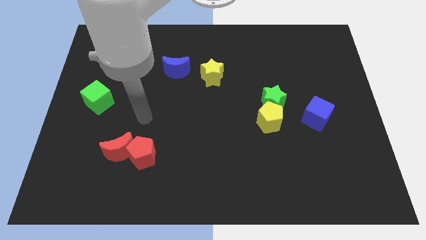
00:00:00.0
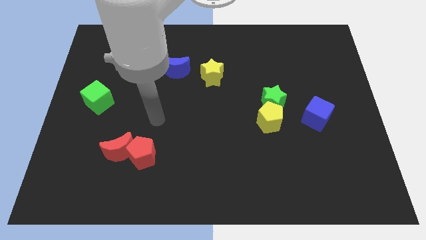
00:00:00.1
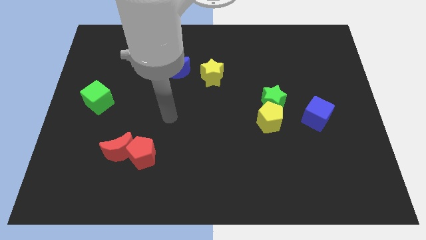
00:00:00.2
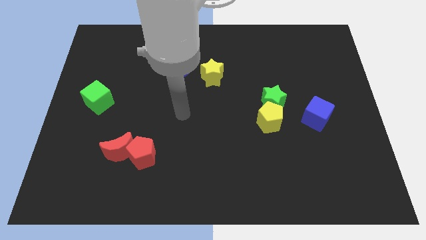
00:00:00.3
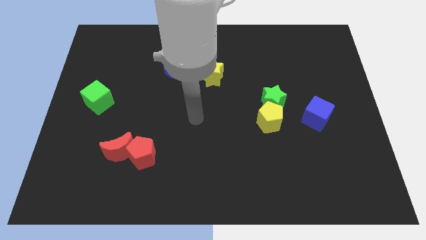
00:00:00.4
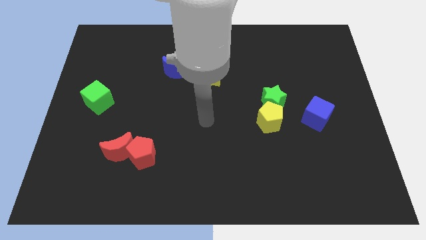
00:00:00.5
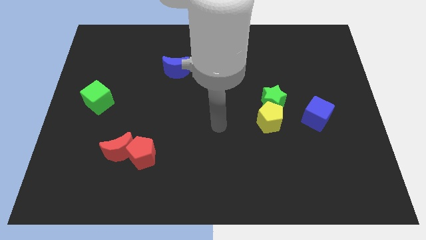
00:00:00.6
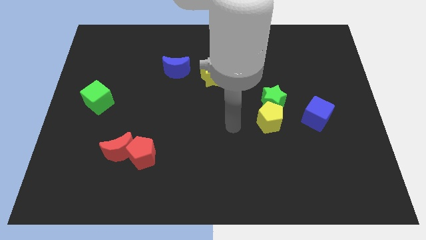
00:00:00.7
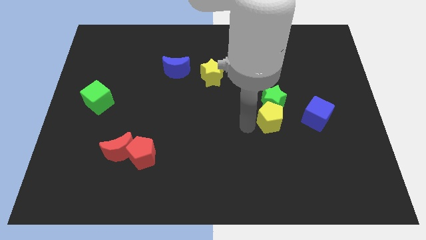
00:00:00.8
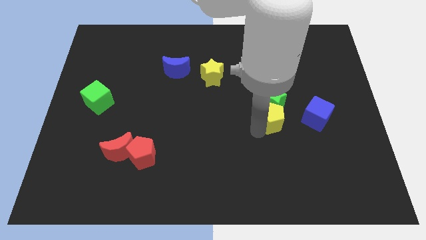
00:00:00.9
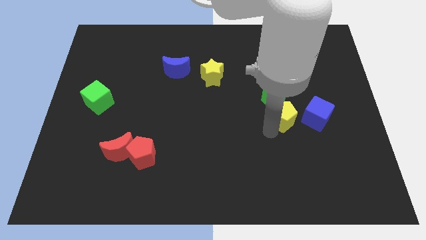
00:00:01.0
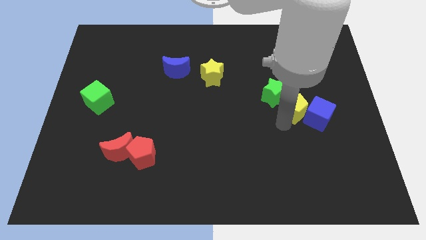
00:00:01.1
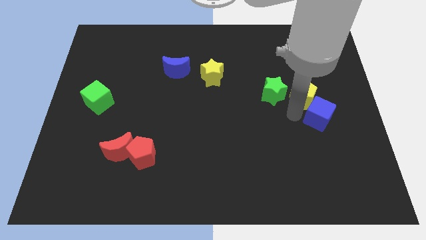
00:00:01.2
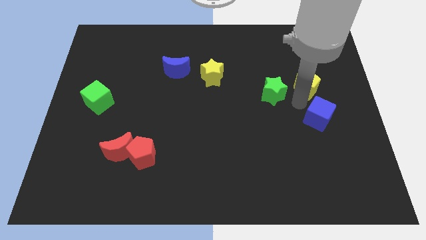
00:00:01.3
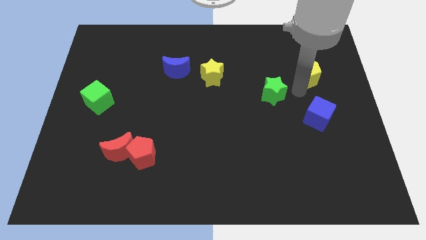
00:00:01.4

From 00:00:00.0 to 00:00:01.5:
separate the green star from the yellow pentagon

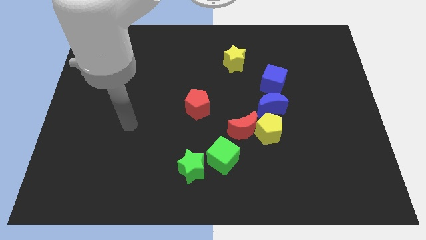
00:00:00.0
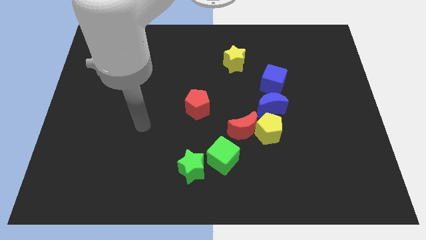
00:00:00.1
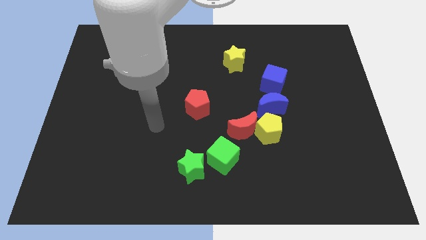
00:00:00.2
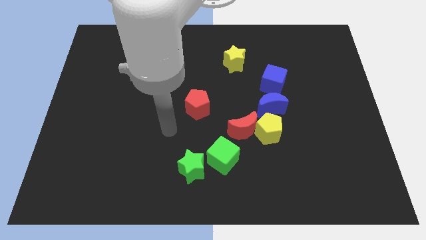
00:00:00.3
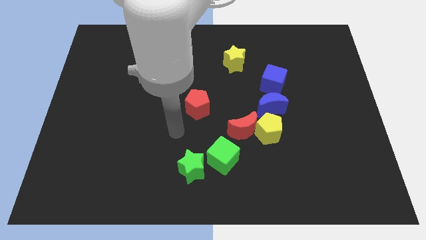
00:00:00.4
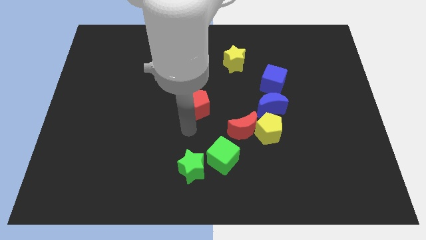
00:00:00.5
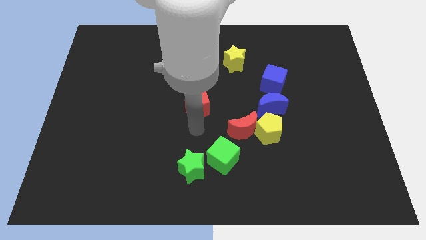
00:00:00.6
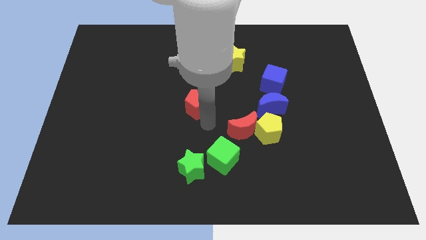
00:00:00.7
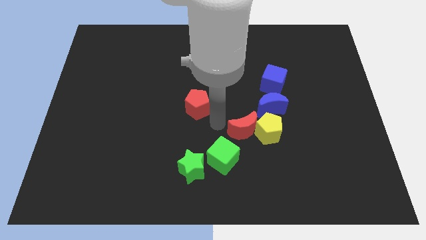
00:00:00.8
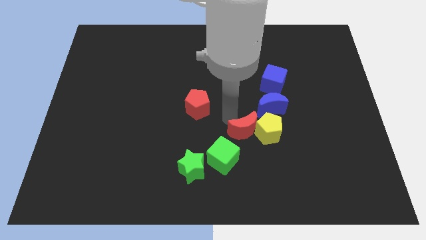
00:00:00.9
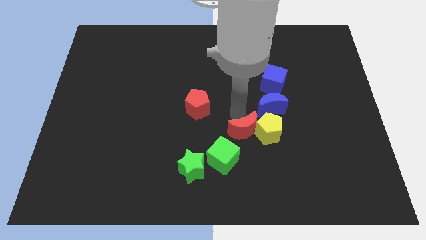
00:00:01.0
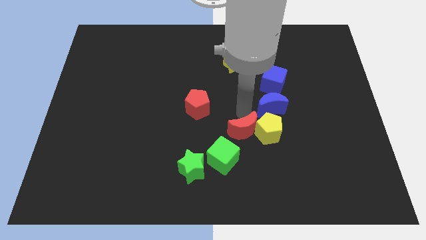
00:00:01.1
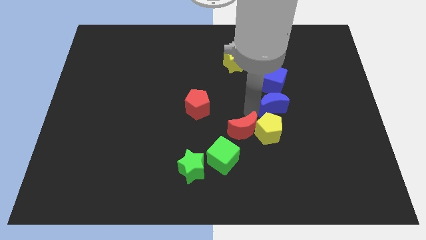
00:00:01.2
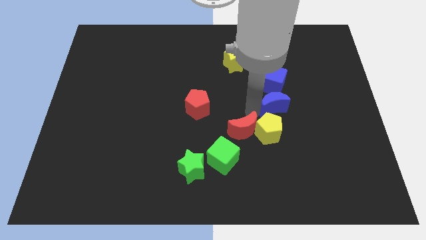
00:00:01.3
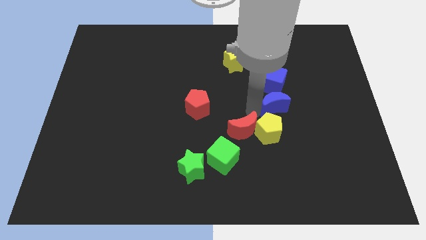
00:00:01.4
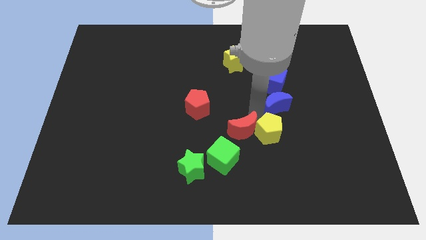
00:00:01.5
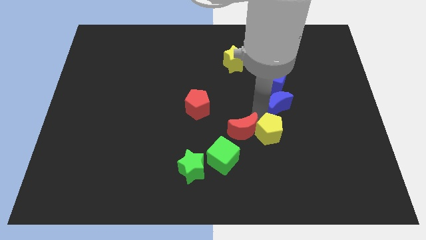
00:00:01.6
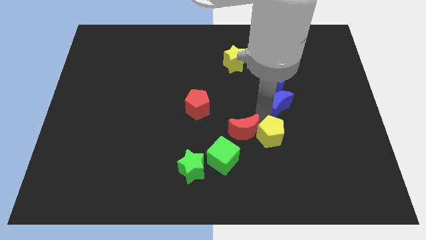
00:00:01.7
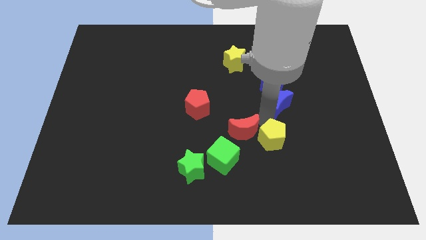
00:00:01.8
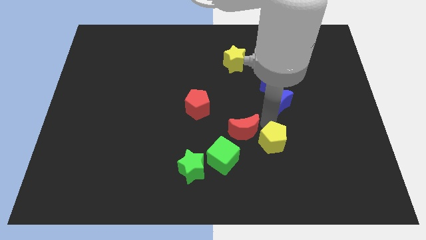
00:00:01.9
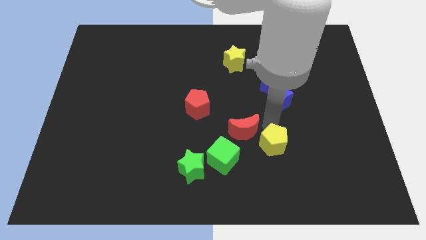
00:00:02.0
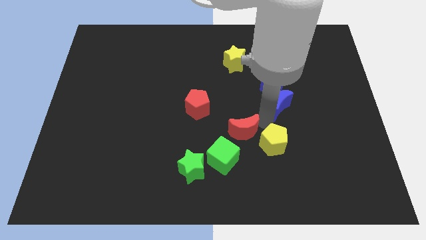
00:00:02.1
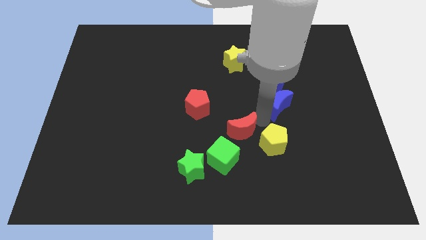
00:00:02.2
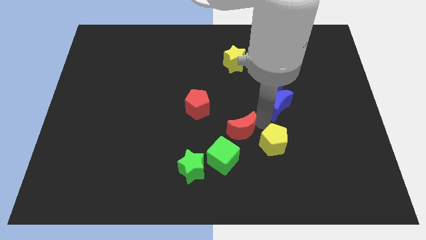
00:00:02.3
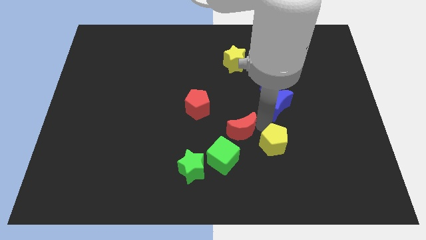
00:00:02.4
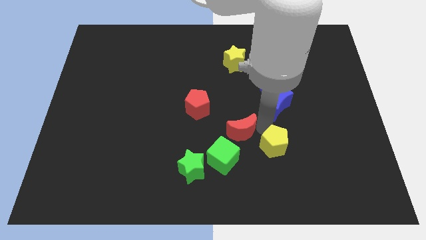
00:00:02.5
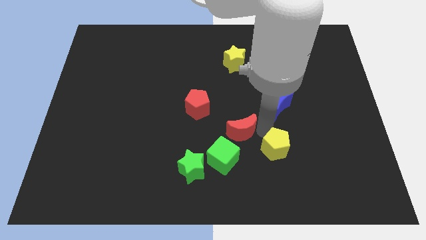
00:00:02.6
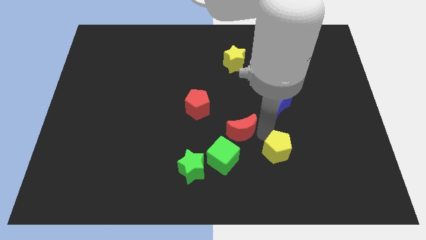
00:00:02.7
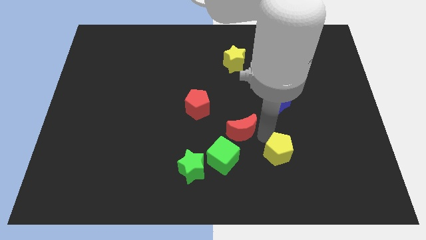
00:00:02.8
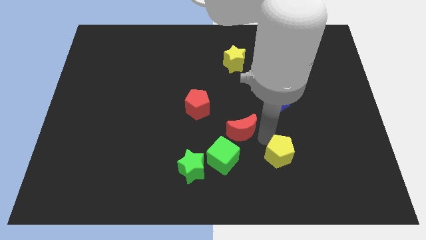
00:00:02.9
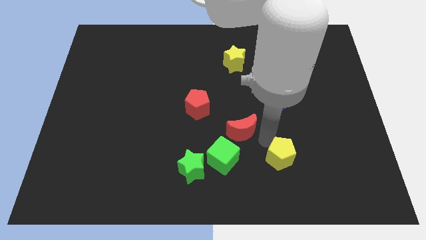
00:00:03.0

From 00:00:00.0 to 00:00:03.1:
pull the yellow pentagon apart from the red moon and blue moon

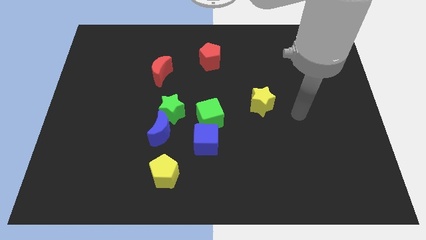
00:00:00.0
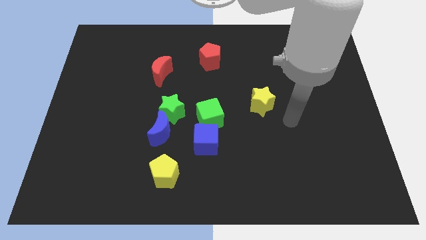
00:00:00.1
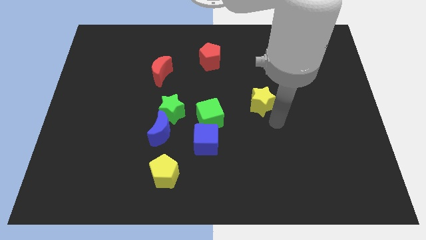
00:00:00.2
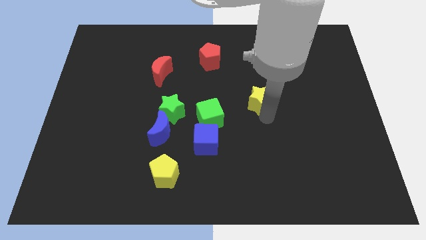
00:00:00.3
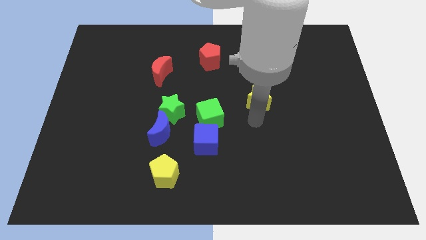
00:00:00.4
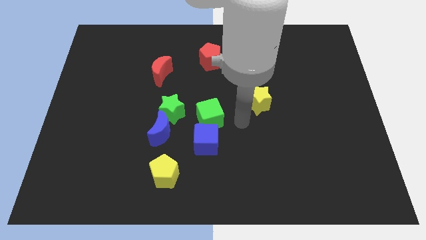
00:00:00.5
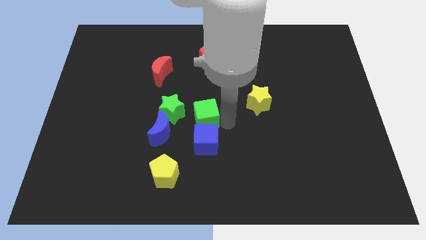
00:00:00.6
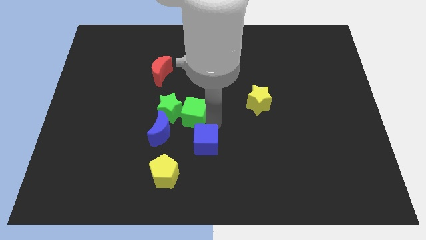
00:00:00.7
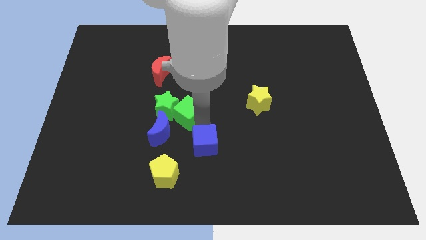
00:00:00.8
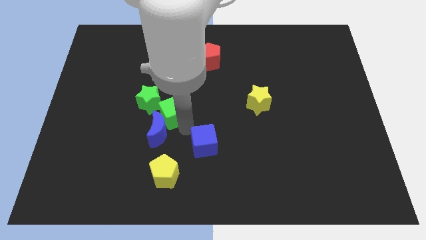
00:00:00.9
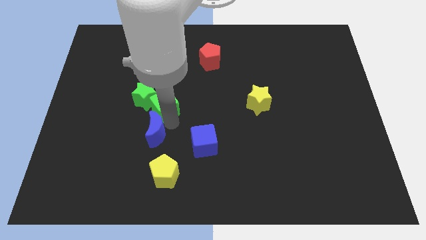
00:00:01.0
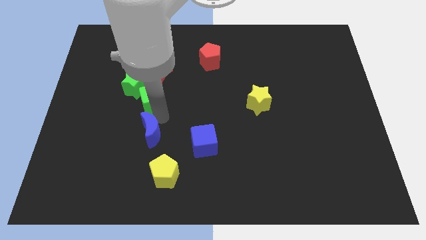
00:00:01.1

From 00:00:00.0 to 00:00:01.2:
separate the green star from the blue moon and green cube

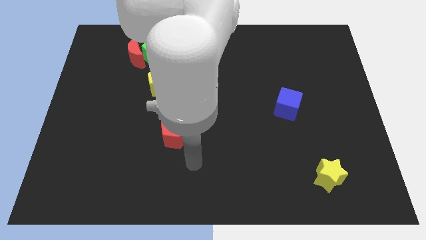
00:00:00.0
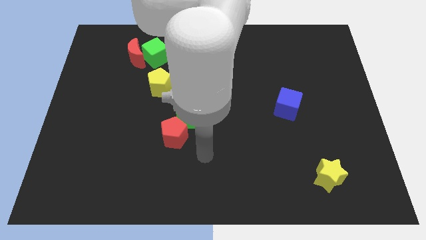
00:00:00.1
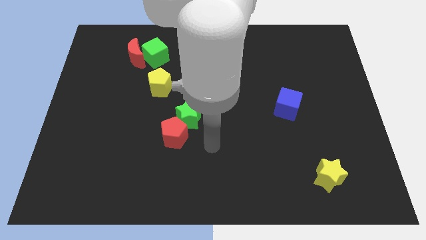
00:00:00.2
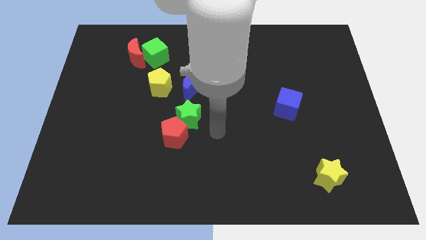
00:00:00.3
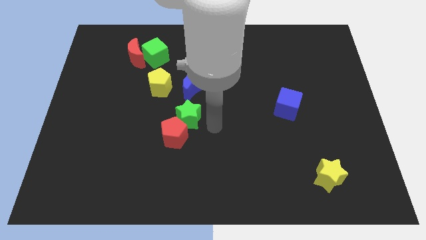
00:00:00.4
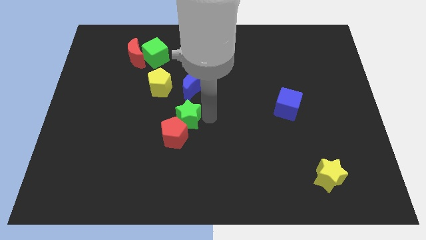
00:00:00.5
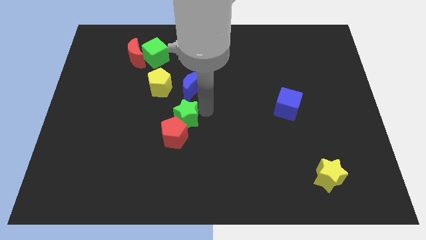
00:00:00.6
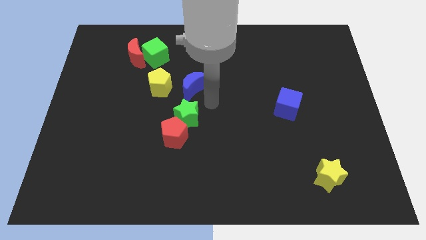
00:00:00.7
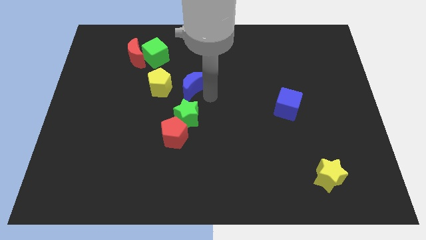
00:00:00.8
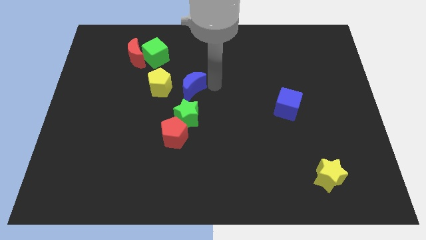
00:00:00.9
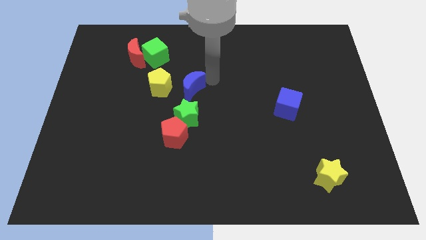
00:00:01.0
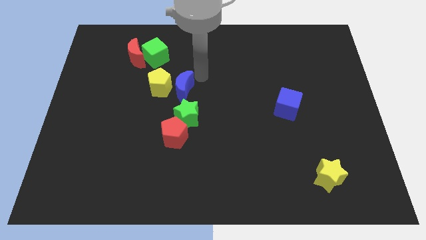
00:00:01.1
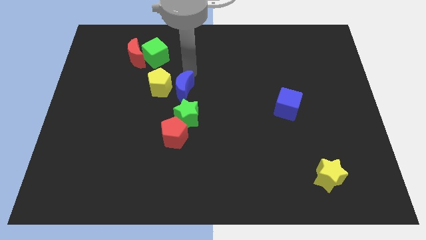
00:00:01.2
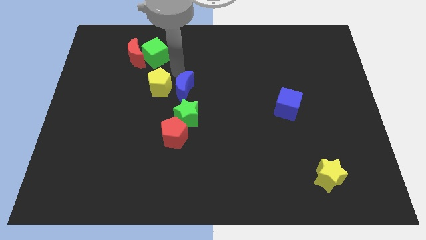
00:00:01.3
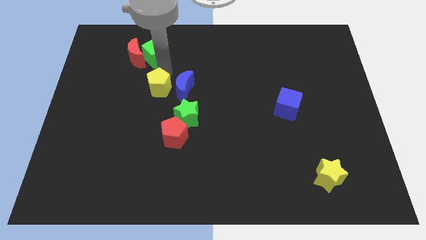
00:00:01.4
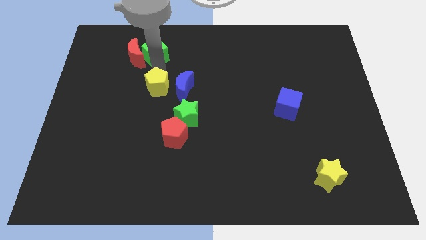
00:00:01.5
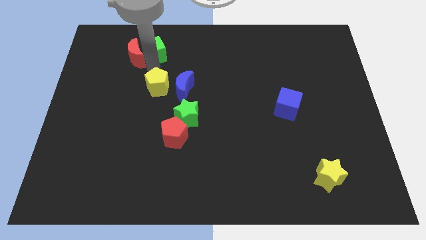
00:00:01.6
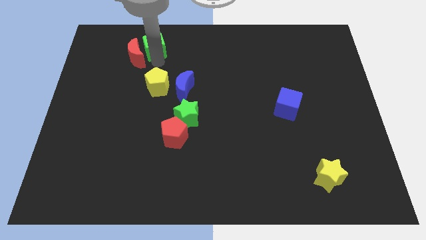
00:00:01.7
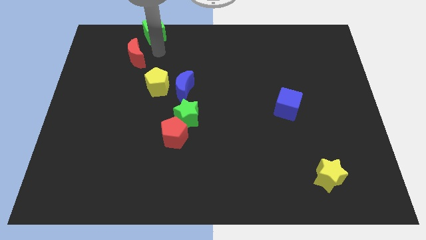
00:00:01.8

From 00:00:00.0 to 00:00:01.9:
separate the red moon from the green cube

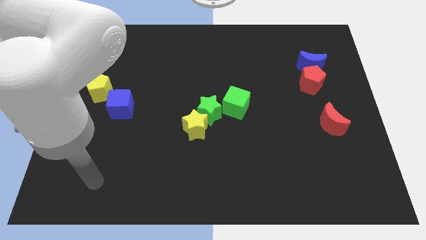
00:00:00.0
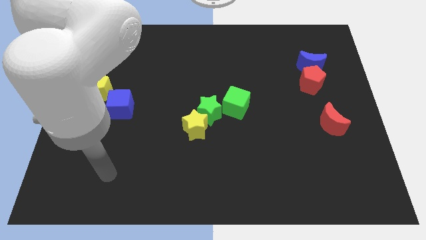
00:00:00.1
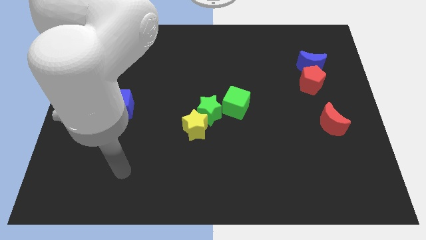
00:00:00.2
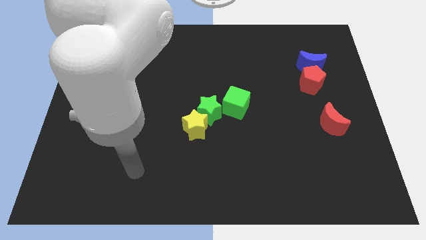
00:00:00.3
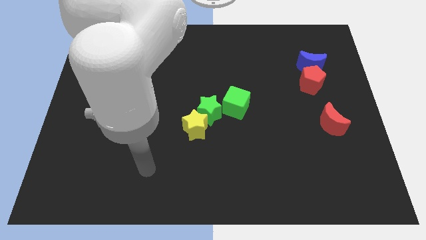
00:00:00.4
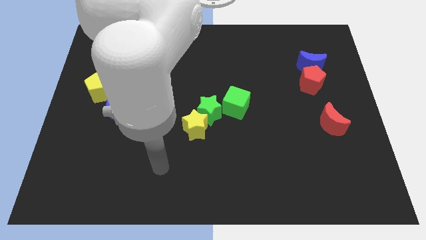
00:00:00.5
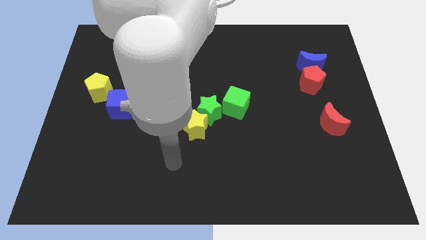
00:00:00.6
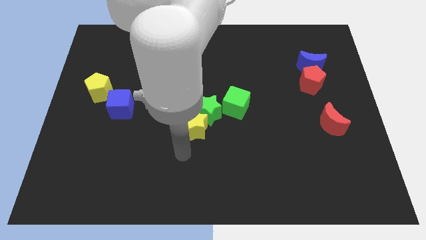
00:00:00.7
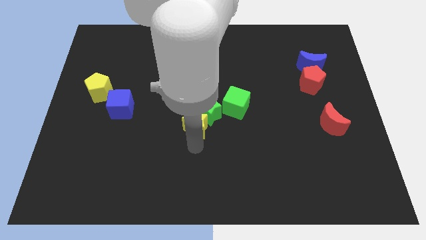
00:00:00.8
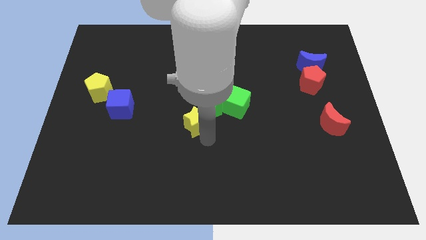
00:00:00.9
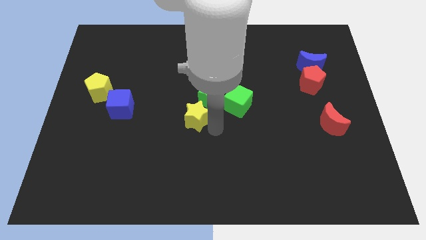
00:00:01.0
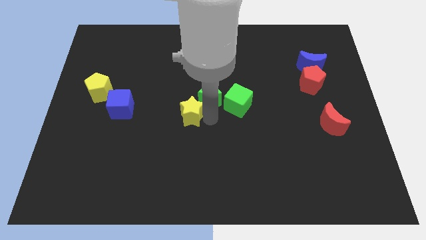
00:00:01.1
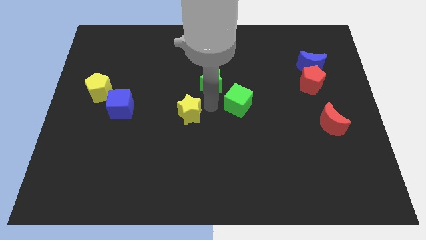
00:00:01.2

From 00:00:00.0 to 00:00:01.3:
separate the yellow star from the green star

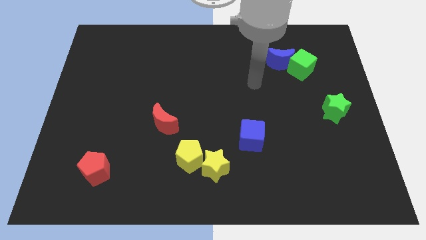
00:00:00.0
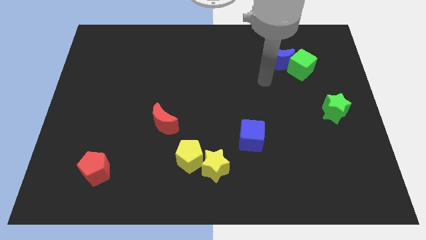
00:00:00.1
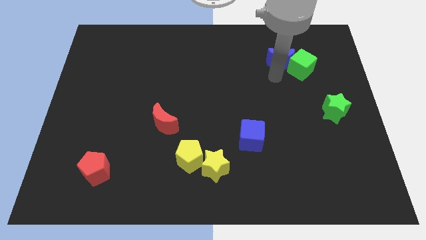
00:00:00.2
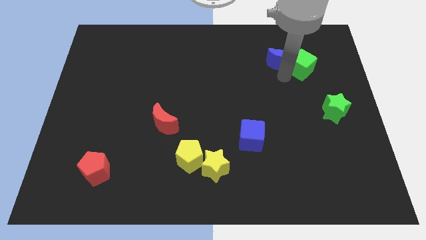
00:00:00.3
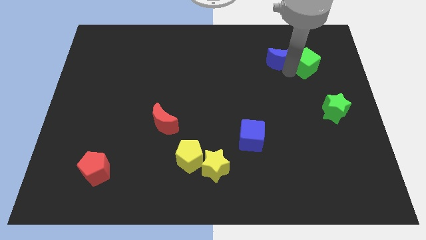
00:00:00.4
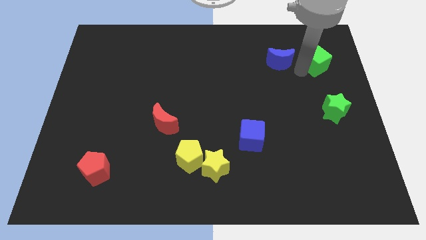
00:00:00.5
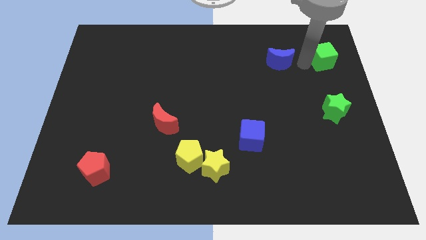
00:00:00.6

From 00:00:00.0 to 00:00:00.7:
separate the blue moon from the green cube
